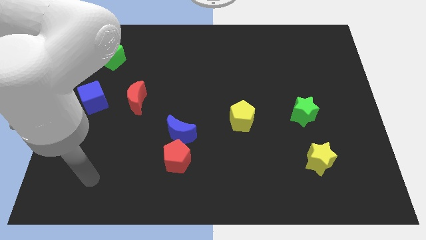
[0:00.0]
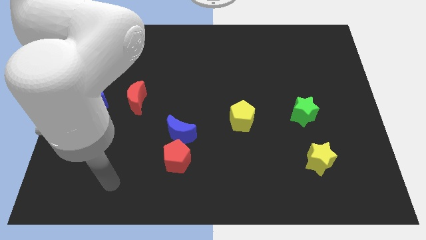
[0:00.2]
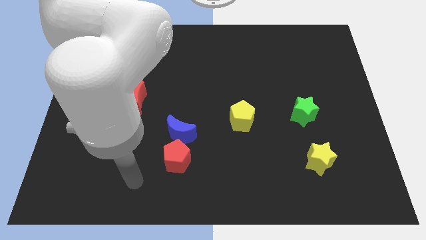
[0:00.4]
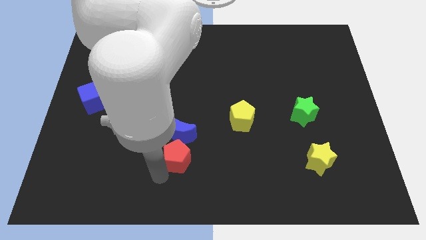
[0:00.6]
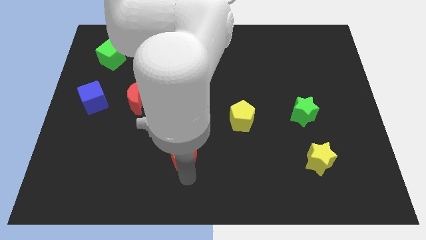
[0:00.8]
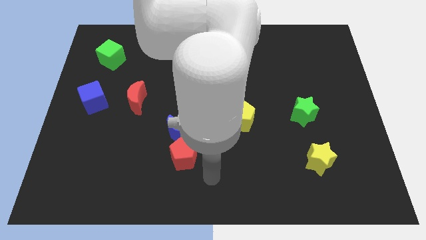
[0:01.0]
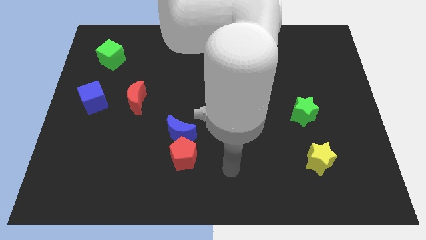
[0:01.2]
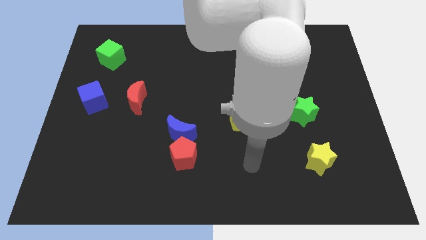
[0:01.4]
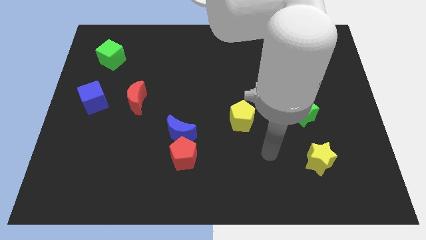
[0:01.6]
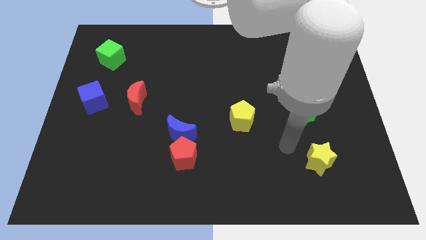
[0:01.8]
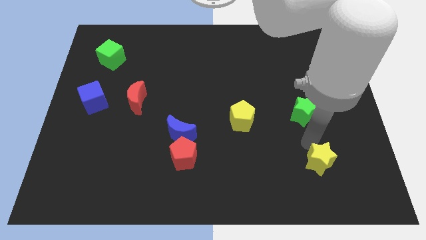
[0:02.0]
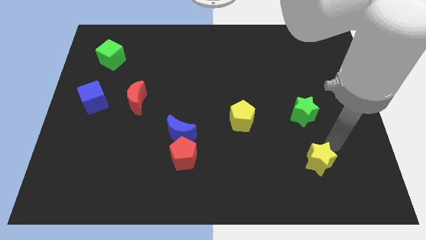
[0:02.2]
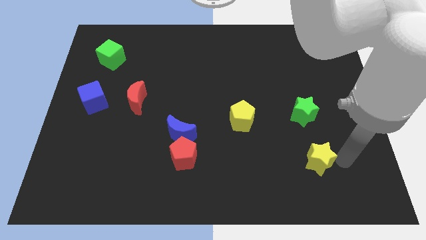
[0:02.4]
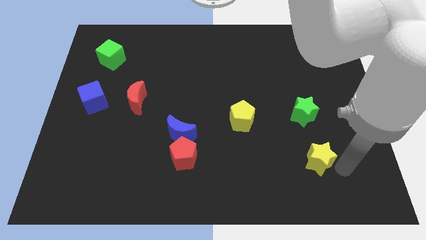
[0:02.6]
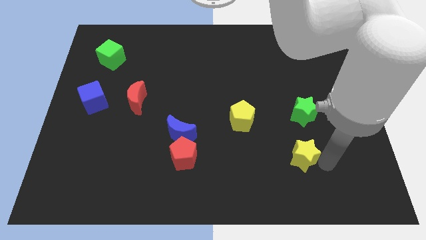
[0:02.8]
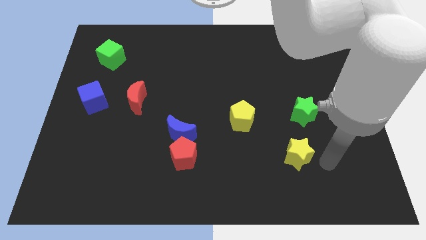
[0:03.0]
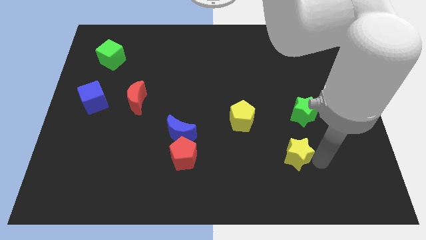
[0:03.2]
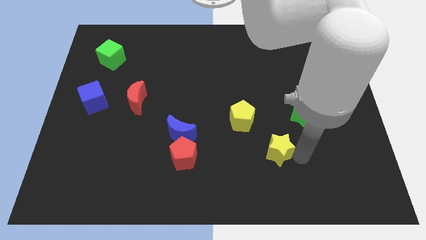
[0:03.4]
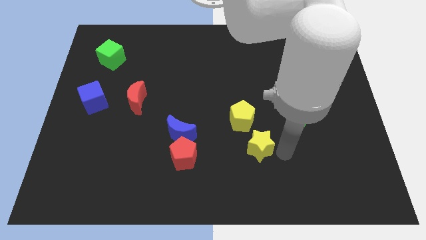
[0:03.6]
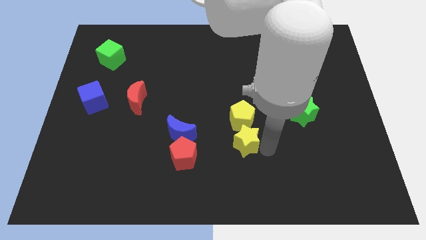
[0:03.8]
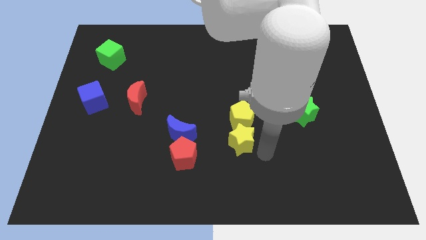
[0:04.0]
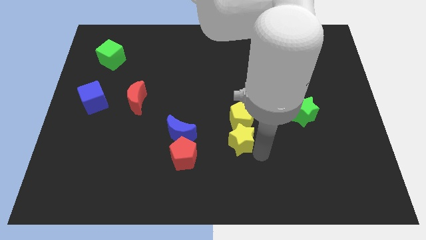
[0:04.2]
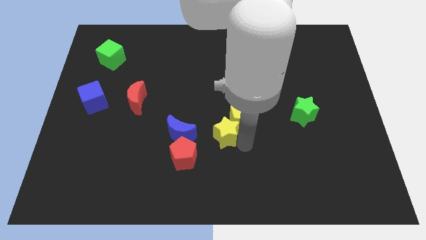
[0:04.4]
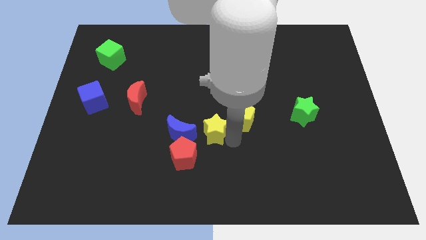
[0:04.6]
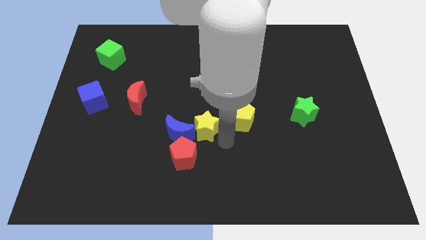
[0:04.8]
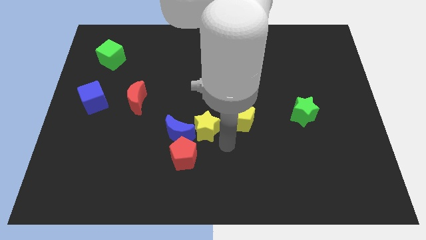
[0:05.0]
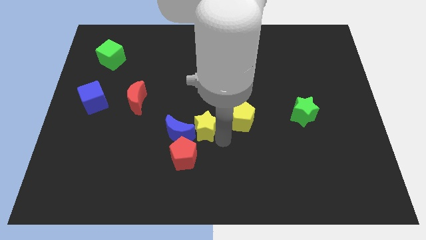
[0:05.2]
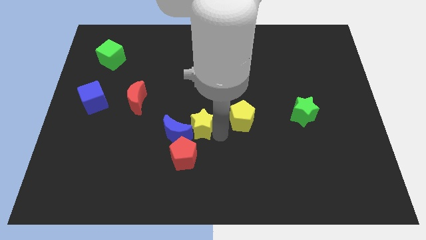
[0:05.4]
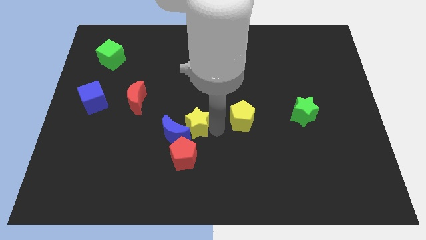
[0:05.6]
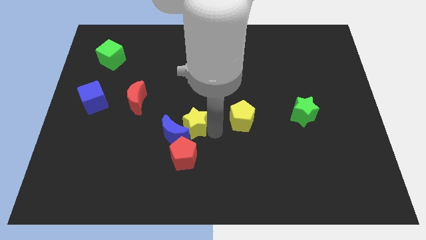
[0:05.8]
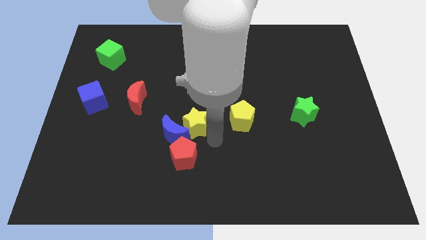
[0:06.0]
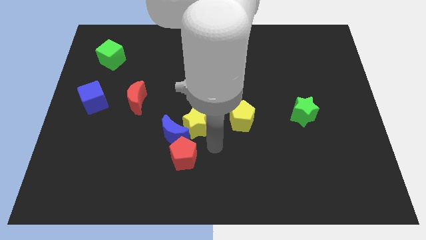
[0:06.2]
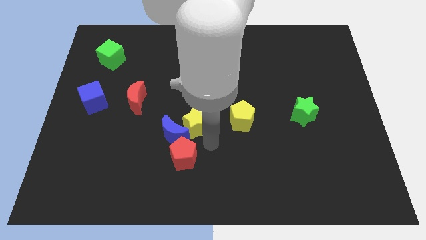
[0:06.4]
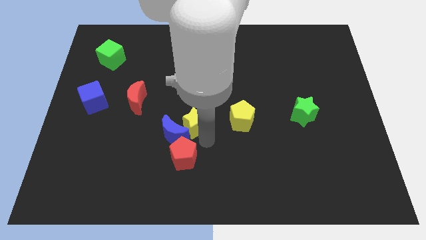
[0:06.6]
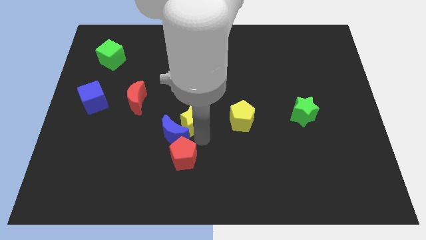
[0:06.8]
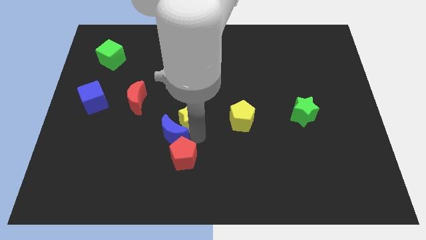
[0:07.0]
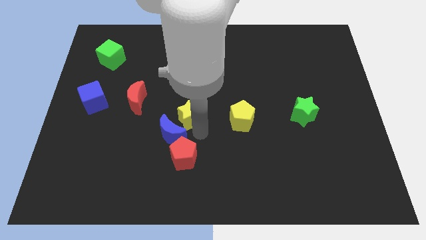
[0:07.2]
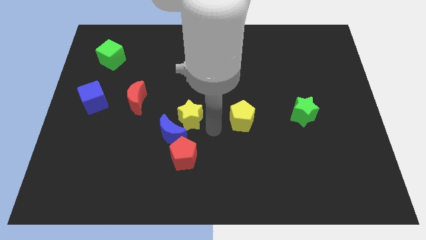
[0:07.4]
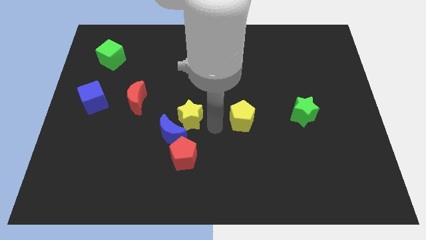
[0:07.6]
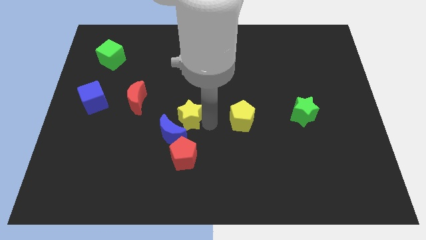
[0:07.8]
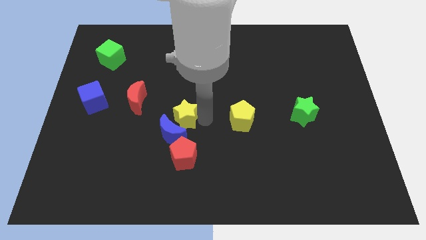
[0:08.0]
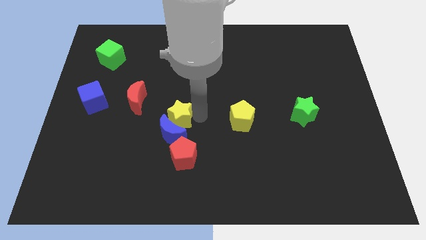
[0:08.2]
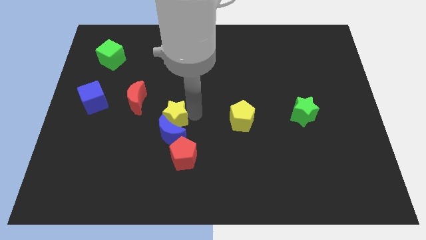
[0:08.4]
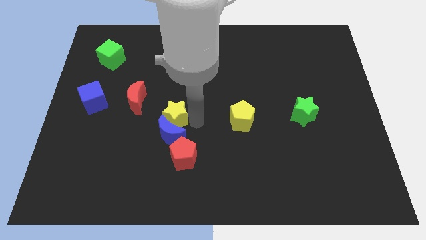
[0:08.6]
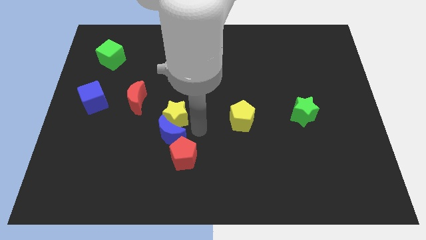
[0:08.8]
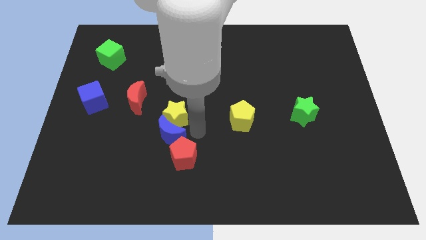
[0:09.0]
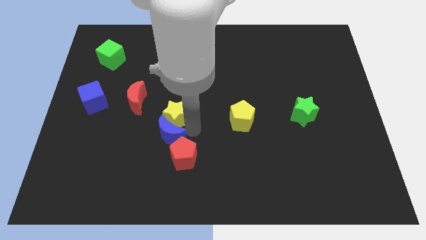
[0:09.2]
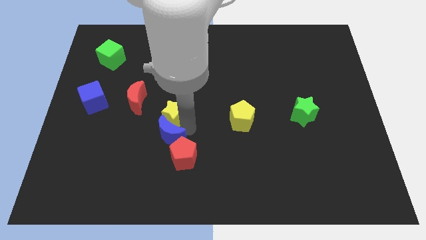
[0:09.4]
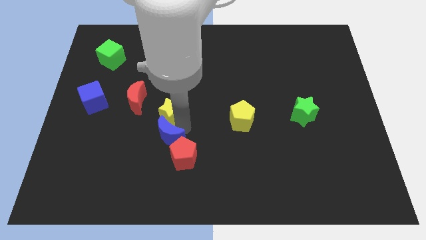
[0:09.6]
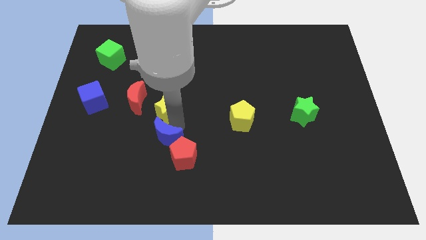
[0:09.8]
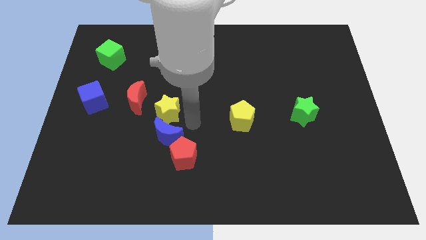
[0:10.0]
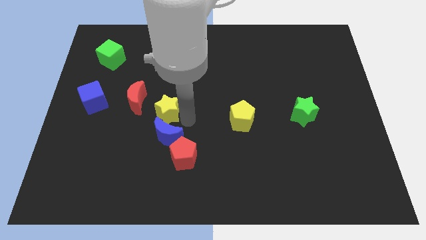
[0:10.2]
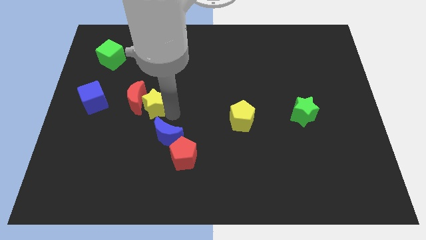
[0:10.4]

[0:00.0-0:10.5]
move the yellow star next to the red moon

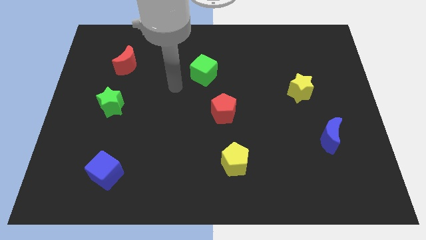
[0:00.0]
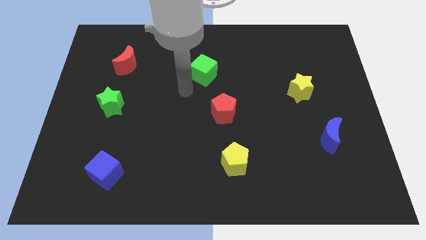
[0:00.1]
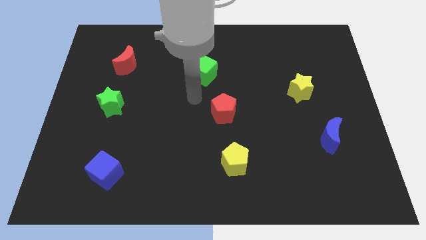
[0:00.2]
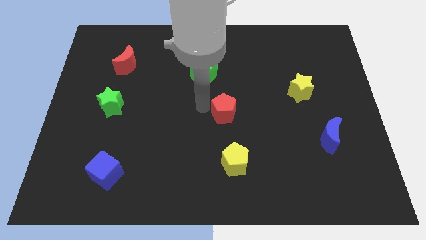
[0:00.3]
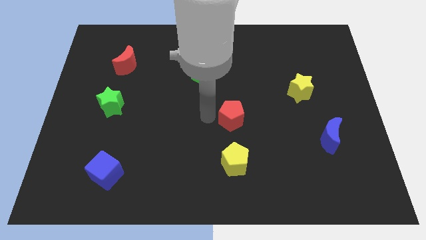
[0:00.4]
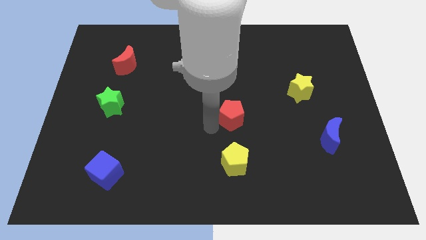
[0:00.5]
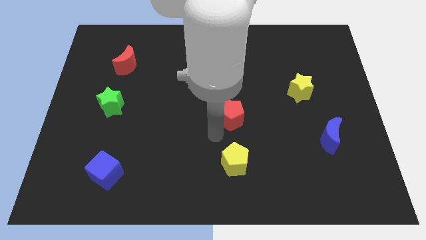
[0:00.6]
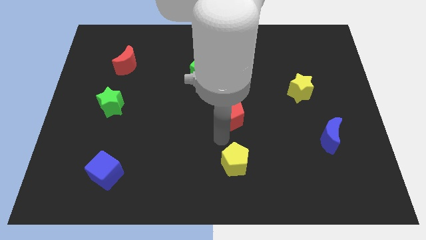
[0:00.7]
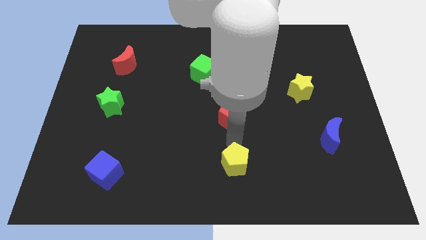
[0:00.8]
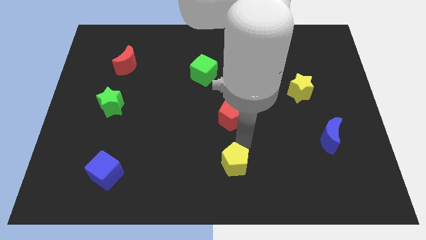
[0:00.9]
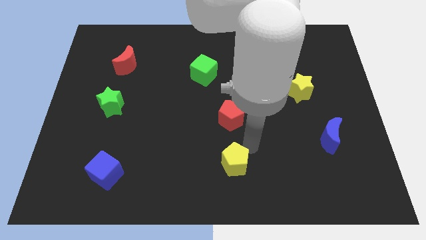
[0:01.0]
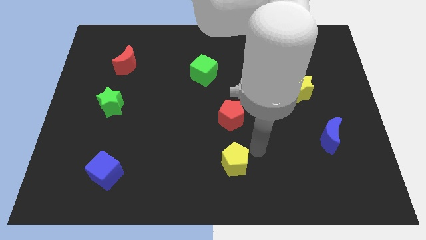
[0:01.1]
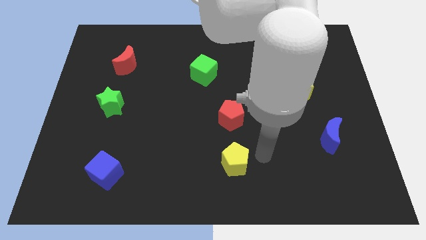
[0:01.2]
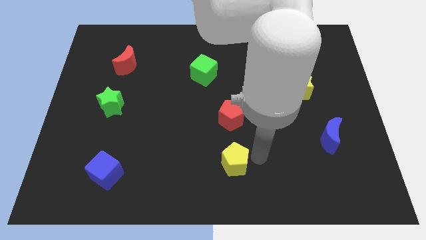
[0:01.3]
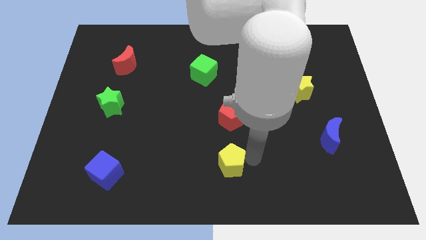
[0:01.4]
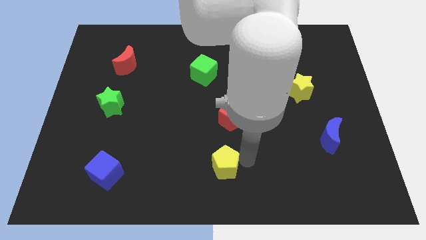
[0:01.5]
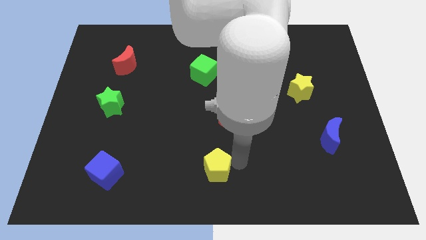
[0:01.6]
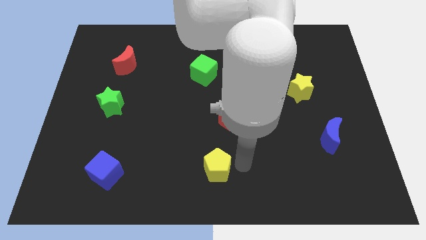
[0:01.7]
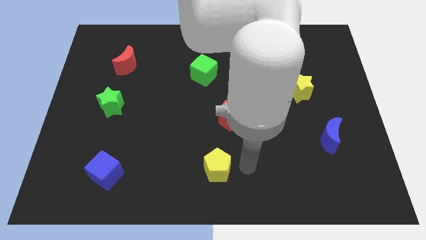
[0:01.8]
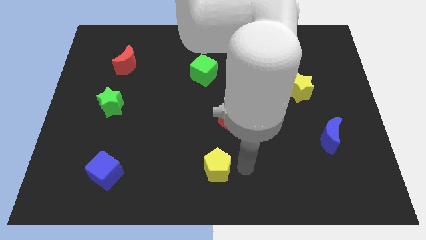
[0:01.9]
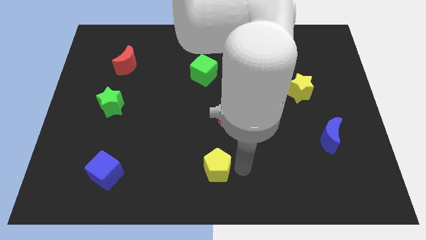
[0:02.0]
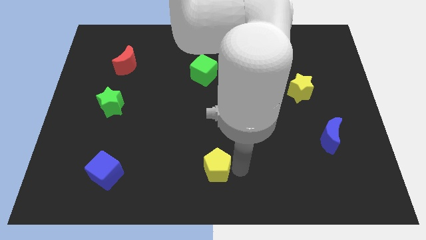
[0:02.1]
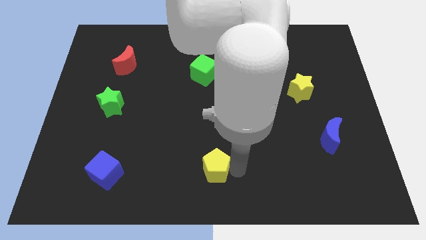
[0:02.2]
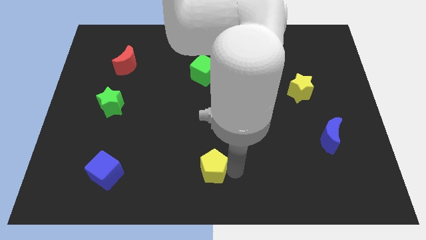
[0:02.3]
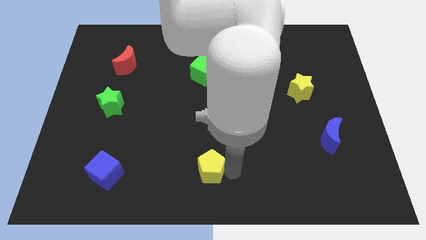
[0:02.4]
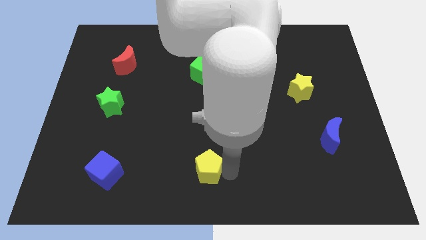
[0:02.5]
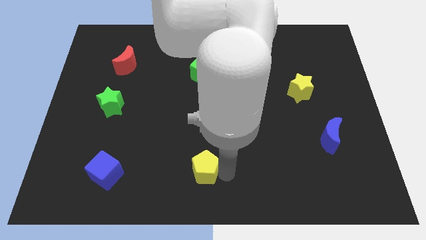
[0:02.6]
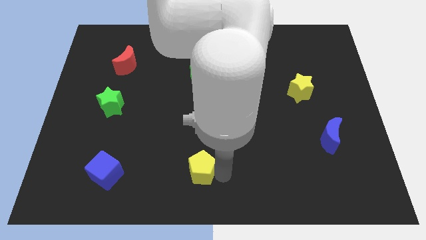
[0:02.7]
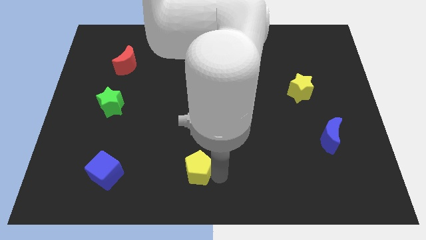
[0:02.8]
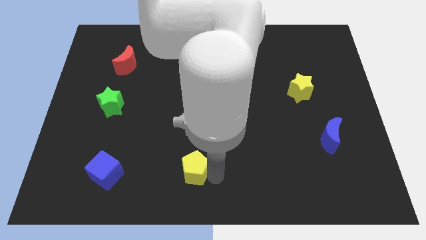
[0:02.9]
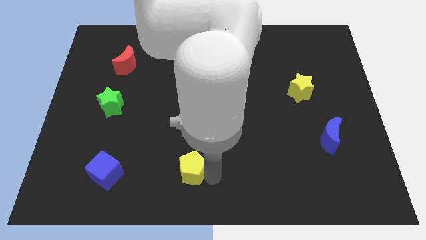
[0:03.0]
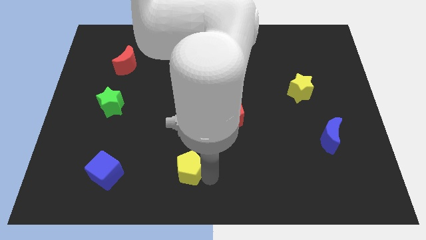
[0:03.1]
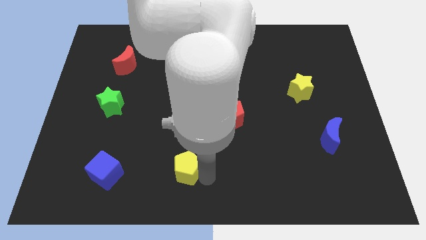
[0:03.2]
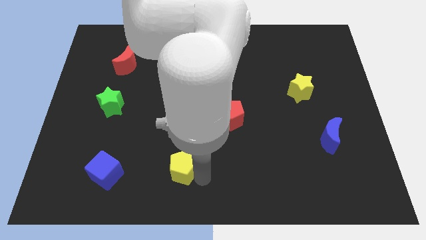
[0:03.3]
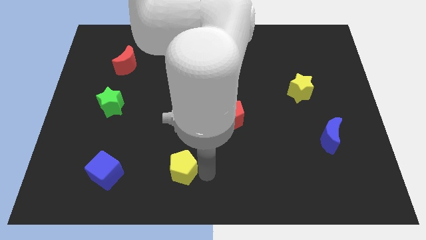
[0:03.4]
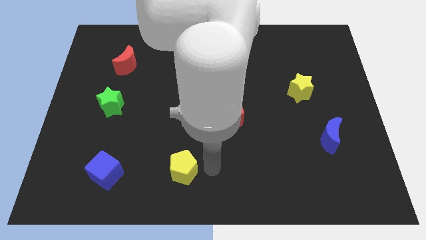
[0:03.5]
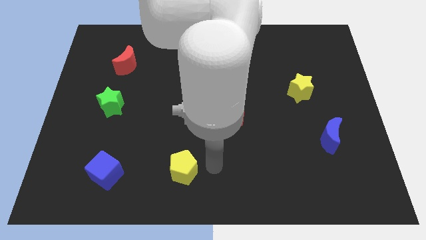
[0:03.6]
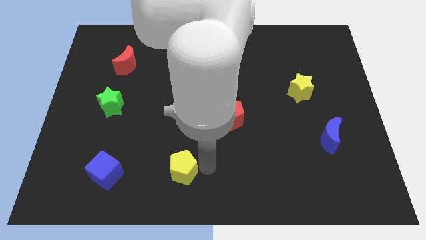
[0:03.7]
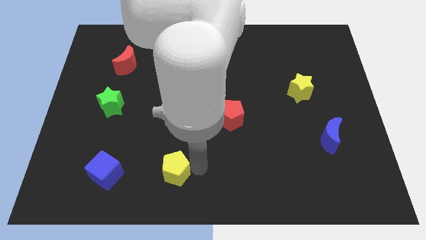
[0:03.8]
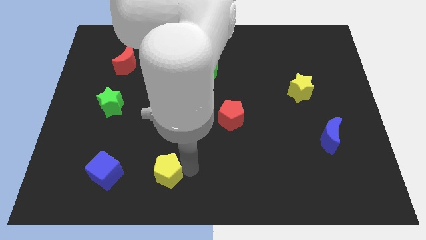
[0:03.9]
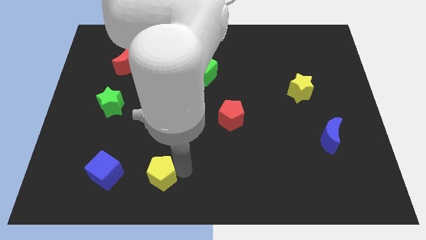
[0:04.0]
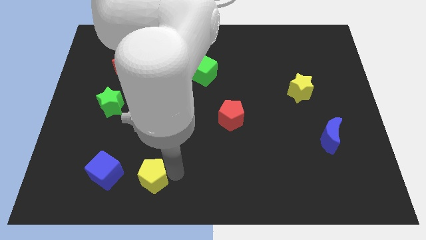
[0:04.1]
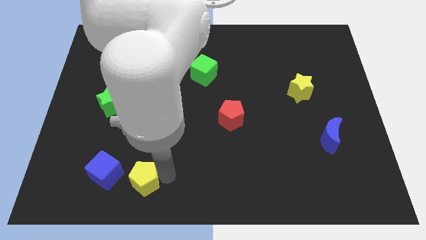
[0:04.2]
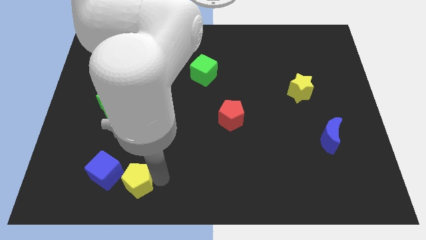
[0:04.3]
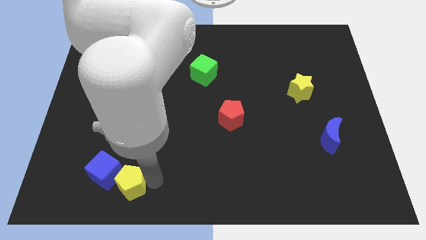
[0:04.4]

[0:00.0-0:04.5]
push the yellow pentagon to the blue cube
